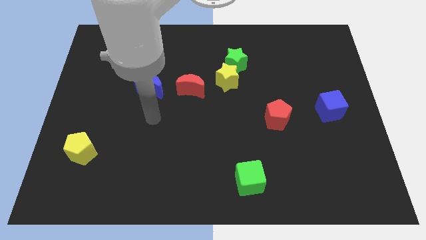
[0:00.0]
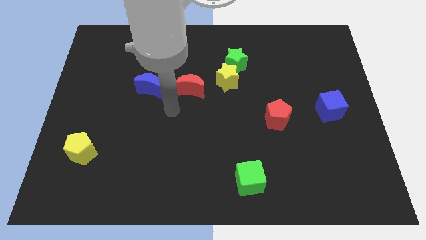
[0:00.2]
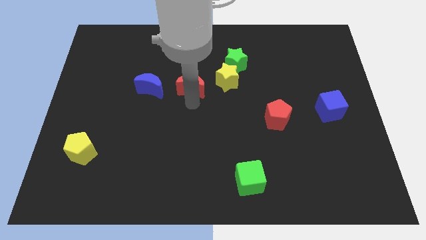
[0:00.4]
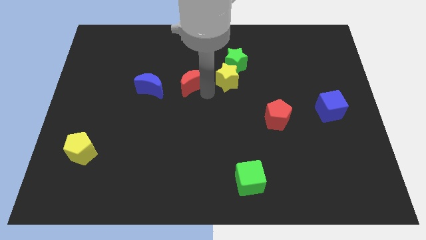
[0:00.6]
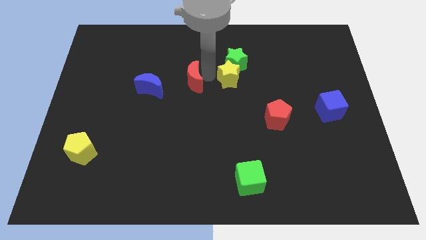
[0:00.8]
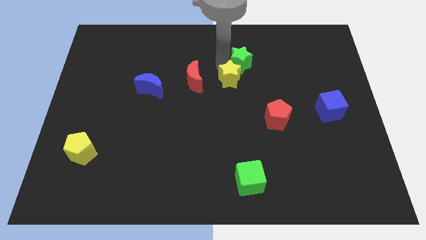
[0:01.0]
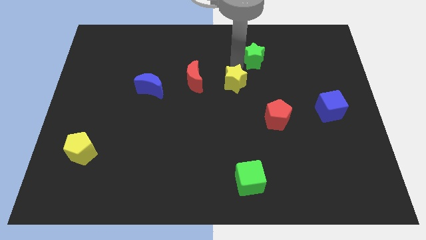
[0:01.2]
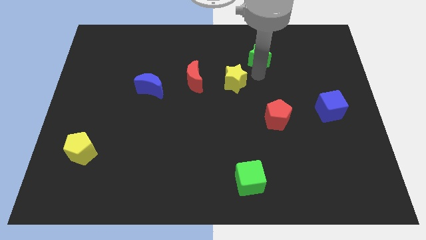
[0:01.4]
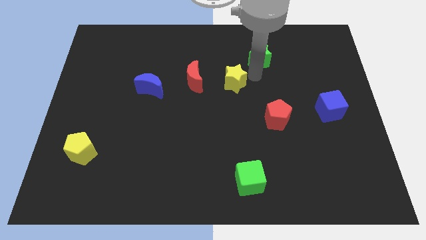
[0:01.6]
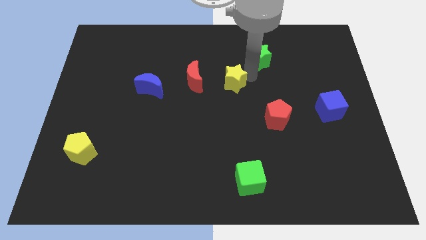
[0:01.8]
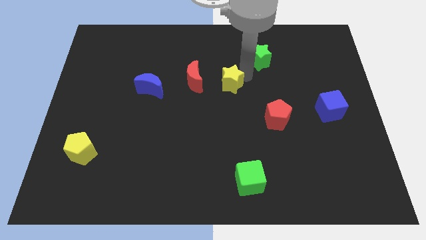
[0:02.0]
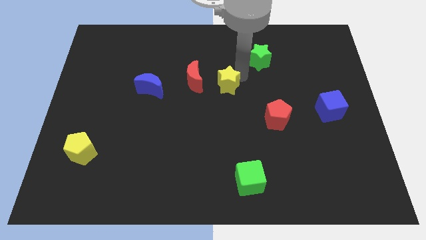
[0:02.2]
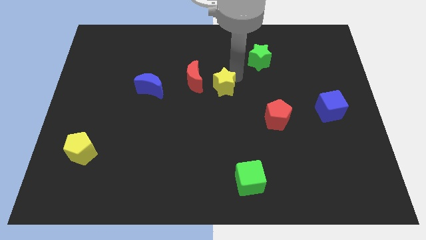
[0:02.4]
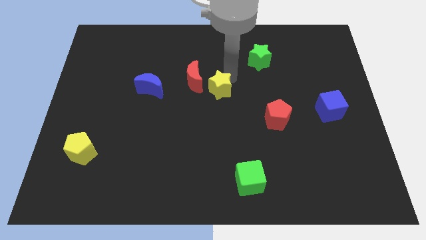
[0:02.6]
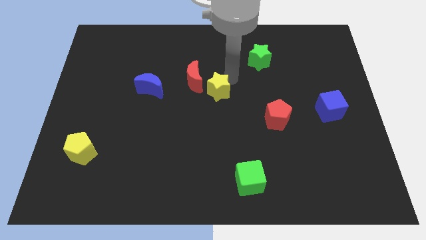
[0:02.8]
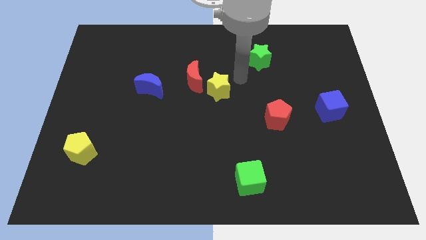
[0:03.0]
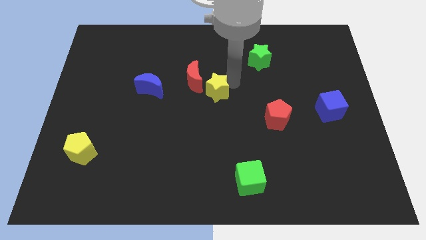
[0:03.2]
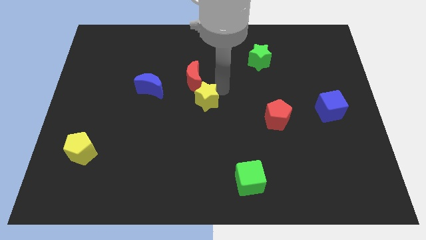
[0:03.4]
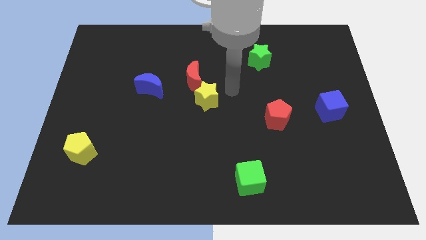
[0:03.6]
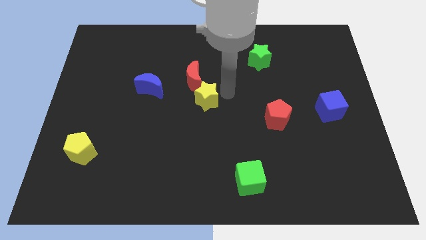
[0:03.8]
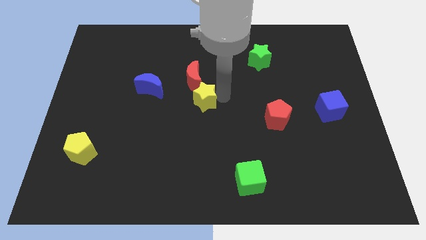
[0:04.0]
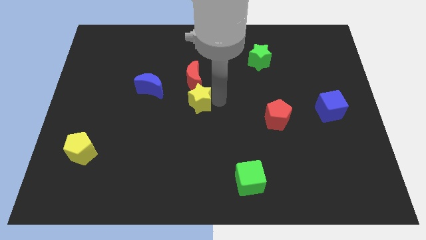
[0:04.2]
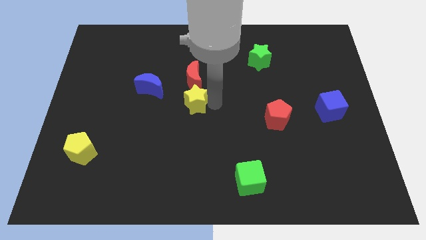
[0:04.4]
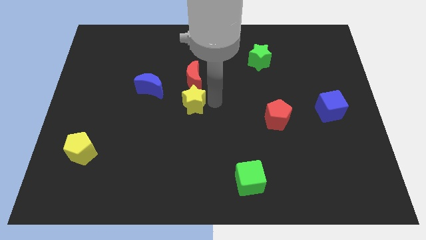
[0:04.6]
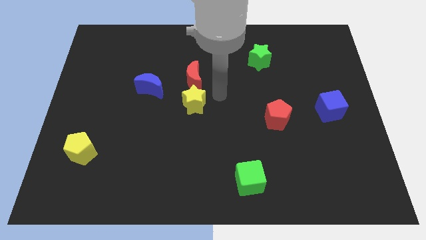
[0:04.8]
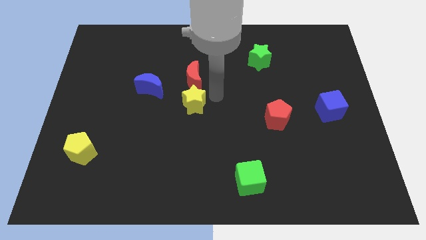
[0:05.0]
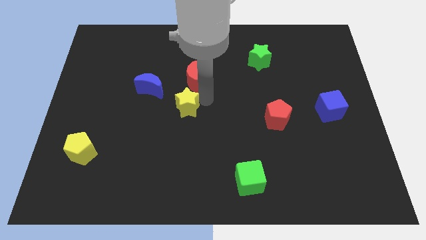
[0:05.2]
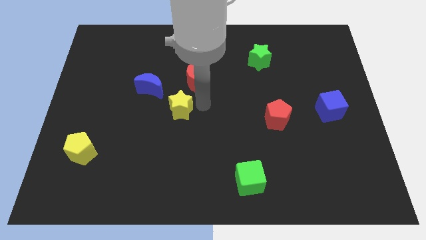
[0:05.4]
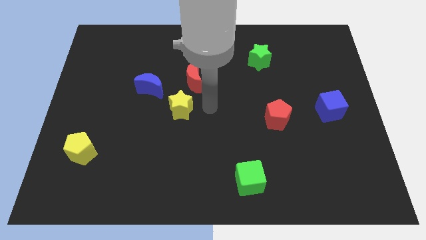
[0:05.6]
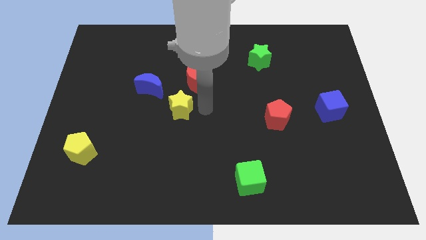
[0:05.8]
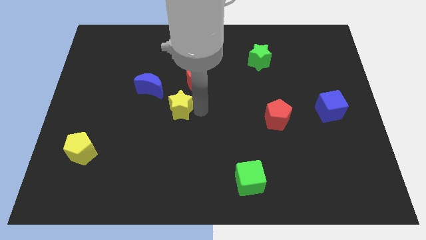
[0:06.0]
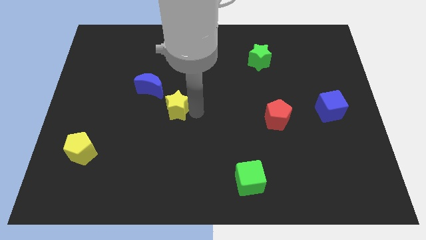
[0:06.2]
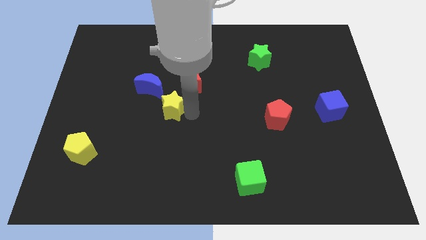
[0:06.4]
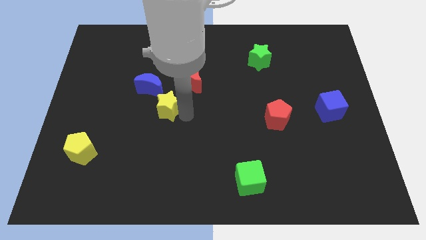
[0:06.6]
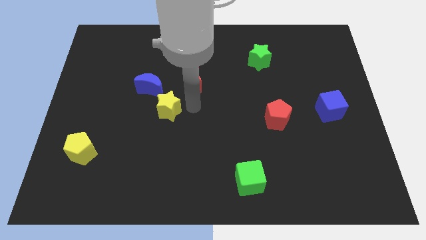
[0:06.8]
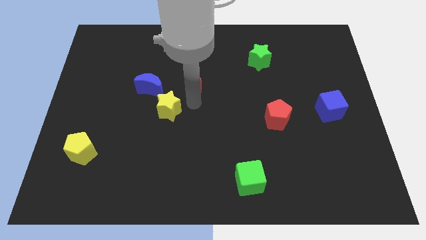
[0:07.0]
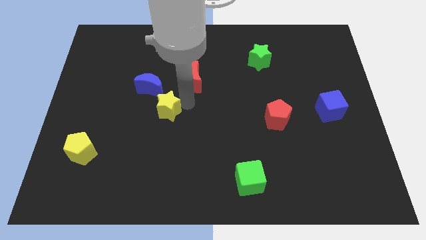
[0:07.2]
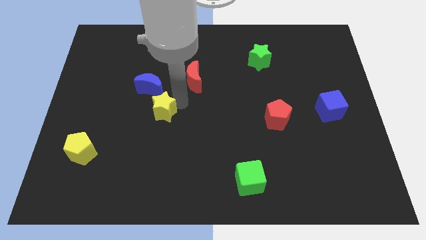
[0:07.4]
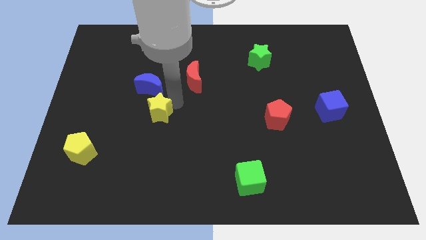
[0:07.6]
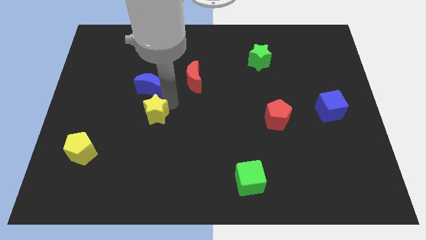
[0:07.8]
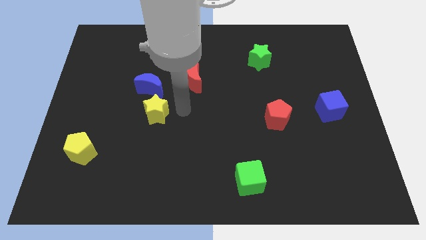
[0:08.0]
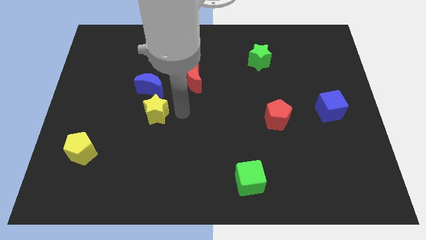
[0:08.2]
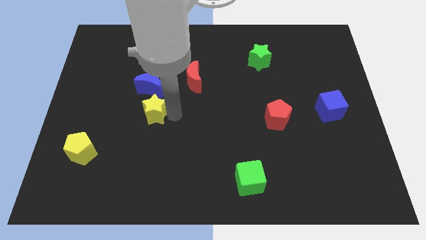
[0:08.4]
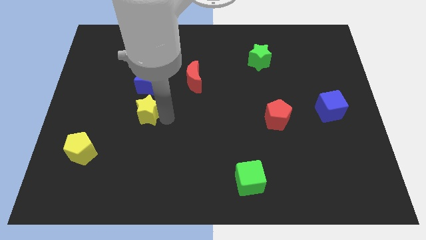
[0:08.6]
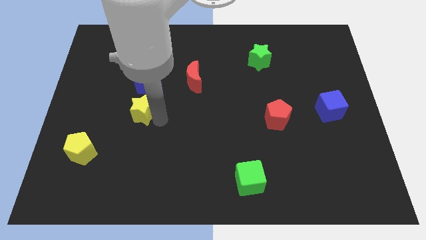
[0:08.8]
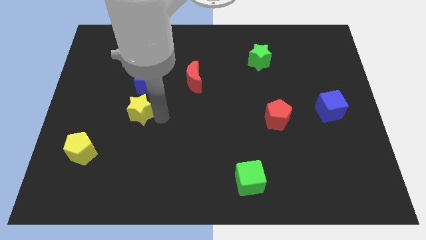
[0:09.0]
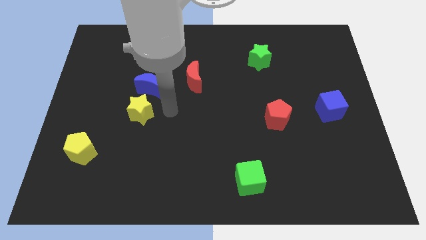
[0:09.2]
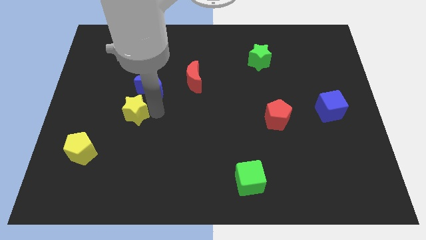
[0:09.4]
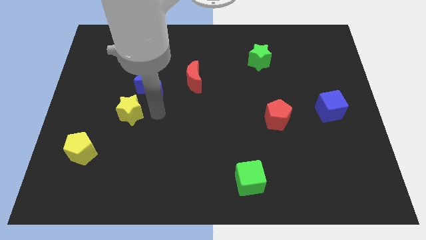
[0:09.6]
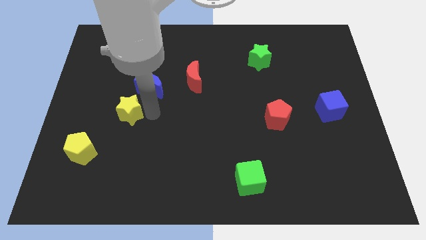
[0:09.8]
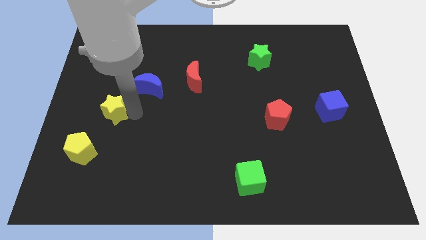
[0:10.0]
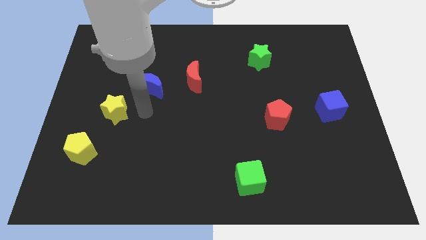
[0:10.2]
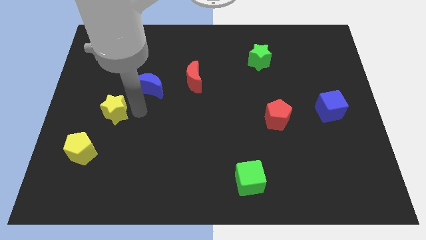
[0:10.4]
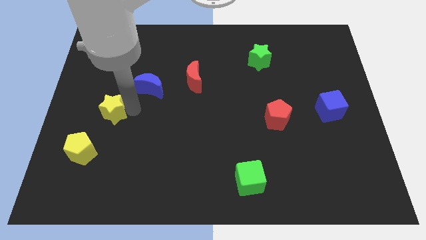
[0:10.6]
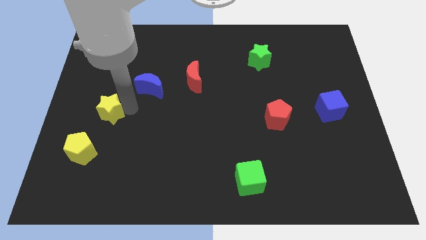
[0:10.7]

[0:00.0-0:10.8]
push the yellow star to the top of the yellow pentagon

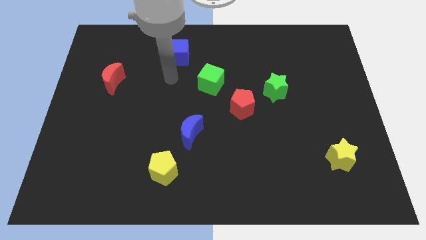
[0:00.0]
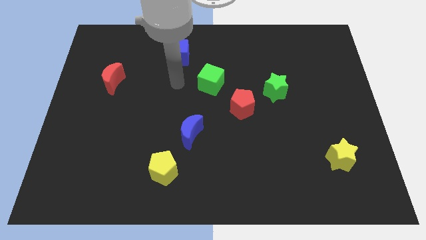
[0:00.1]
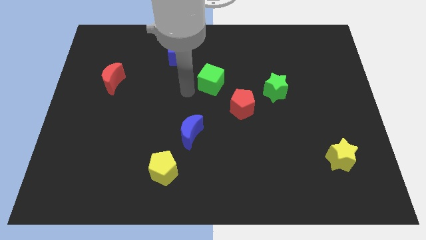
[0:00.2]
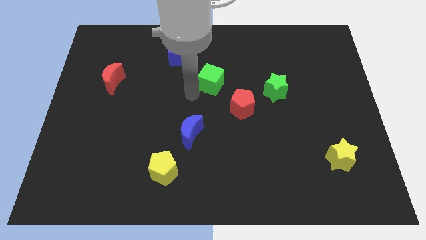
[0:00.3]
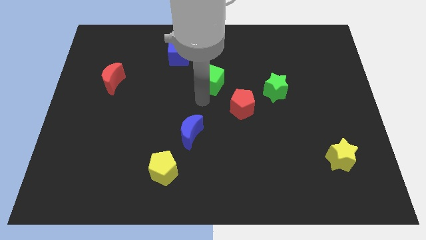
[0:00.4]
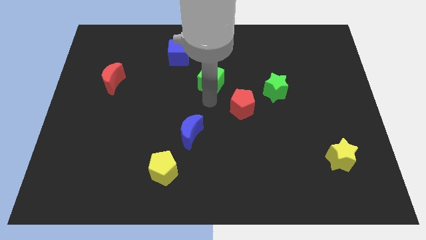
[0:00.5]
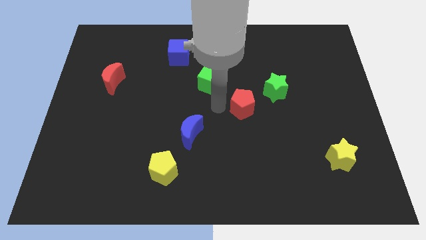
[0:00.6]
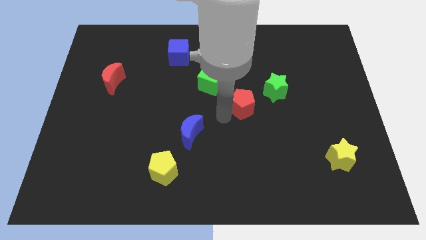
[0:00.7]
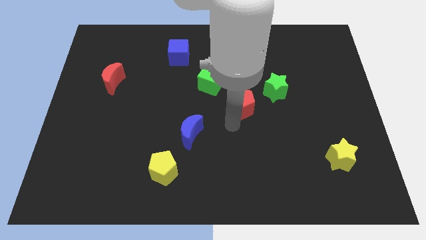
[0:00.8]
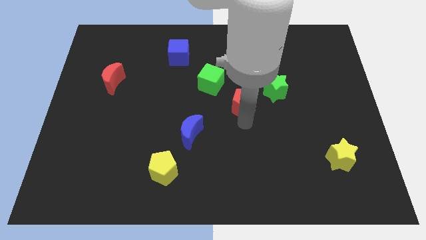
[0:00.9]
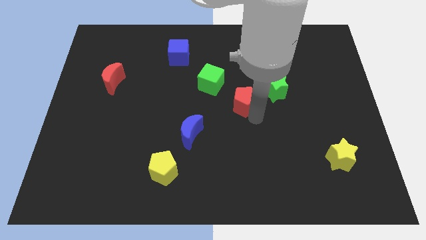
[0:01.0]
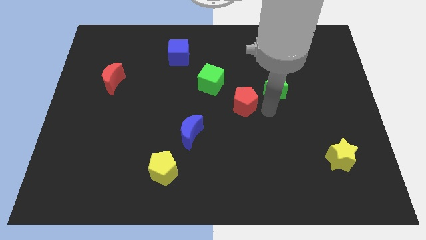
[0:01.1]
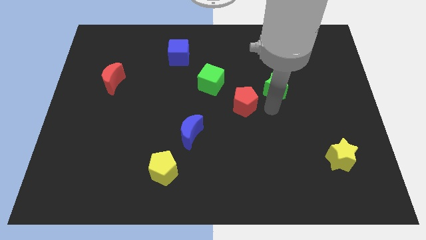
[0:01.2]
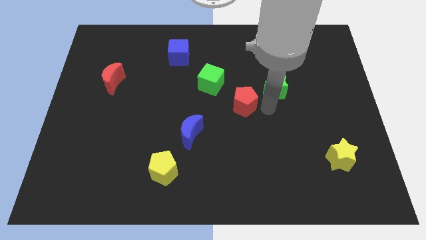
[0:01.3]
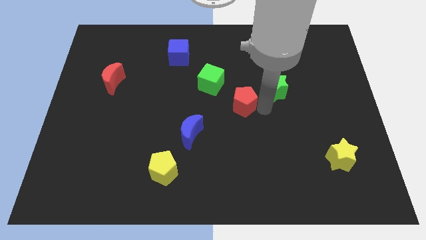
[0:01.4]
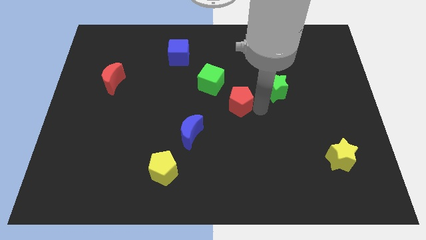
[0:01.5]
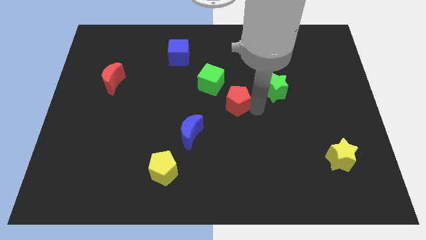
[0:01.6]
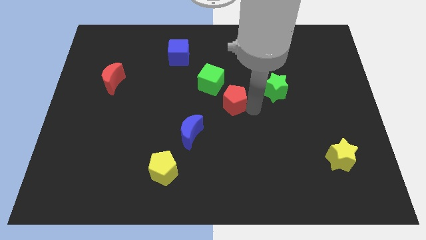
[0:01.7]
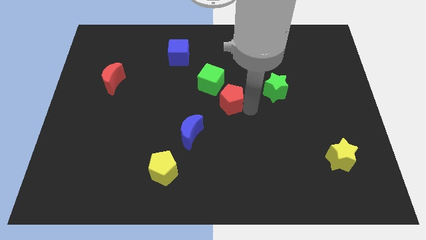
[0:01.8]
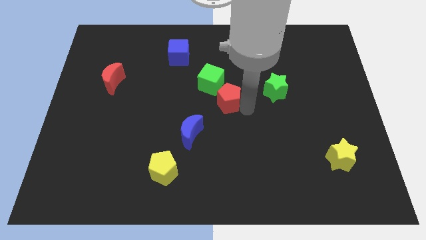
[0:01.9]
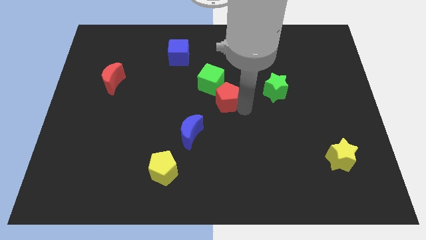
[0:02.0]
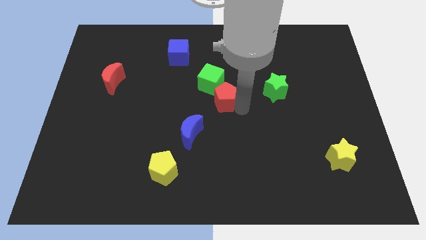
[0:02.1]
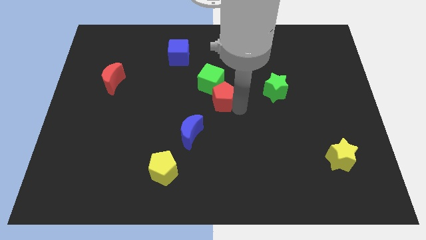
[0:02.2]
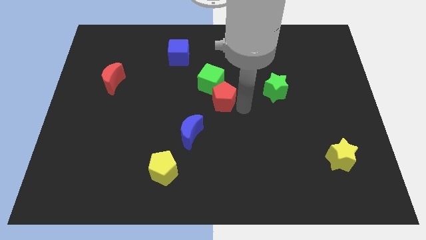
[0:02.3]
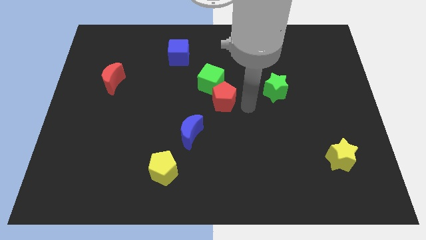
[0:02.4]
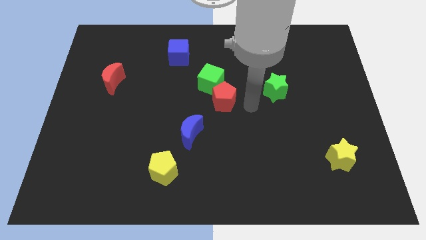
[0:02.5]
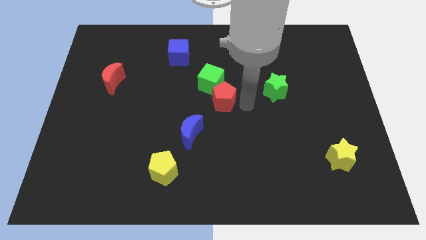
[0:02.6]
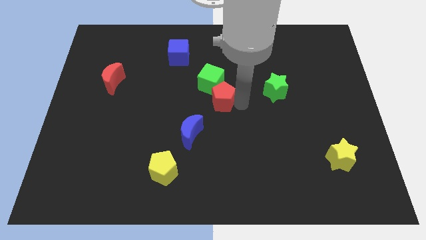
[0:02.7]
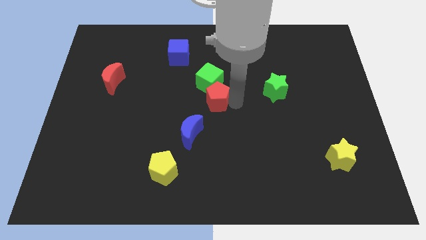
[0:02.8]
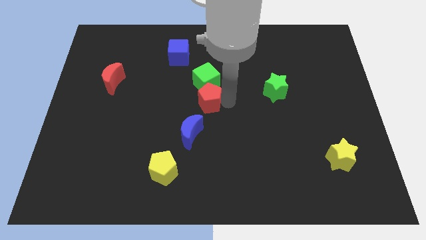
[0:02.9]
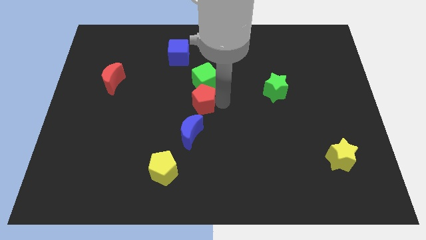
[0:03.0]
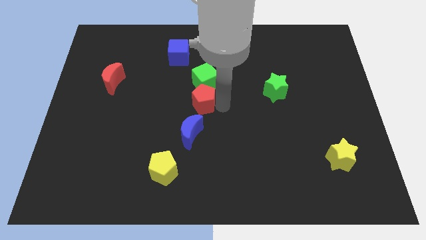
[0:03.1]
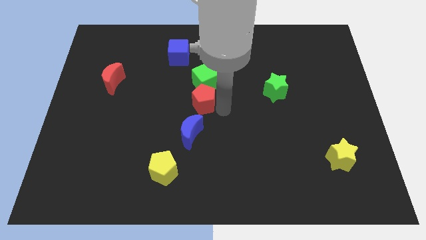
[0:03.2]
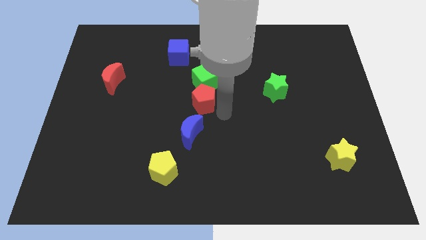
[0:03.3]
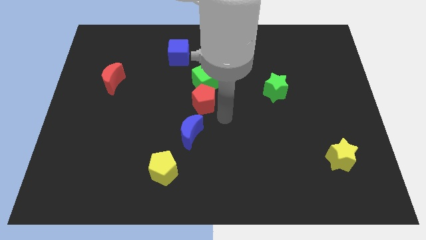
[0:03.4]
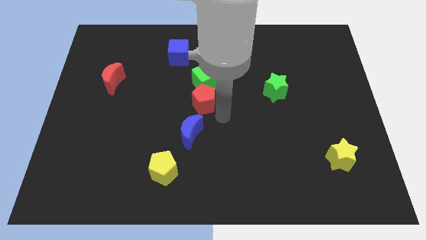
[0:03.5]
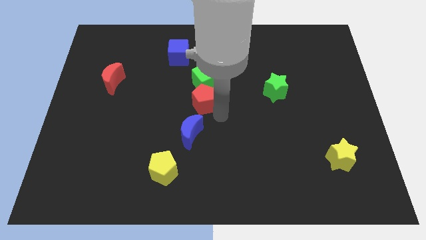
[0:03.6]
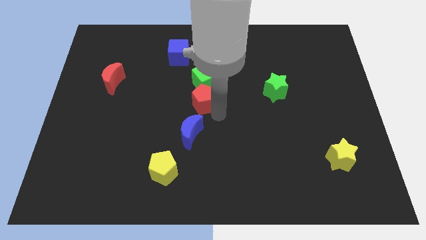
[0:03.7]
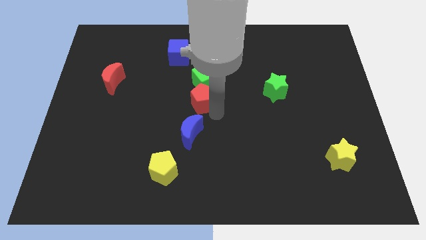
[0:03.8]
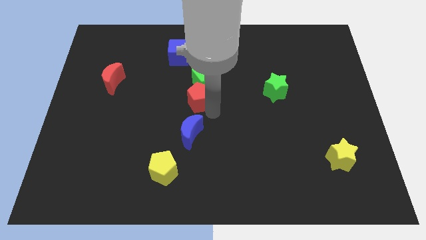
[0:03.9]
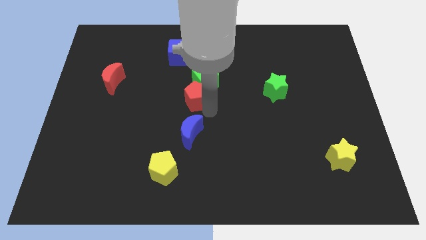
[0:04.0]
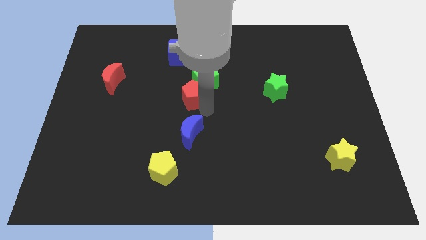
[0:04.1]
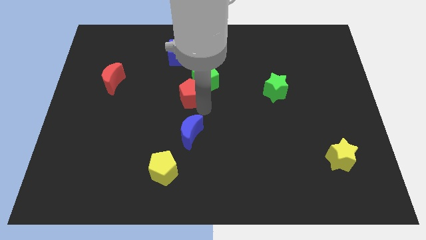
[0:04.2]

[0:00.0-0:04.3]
put the red pentagon below the blue cube
